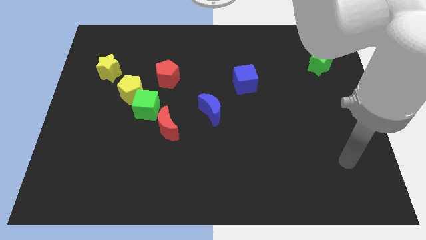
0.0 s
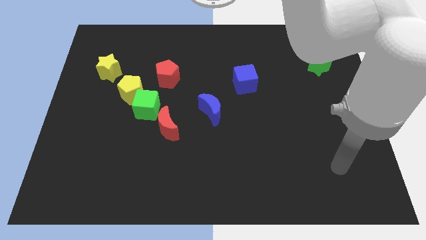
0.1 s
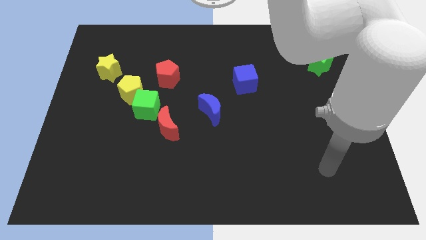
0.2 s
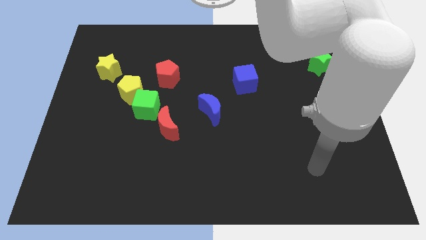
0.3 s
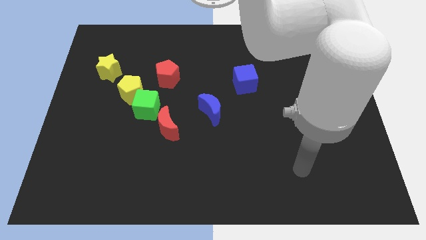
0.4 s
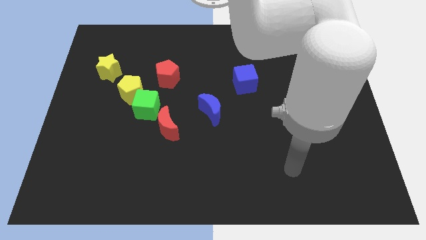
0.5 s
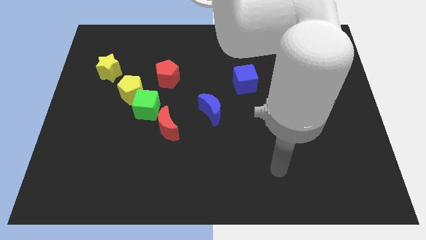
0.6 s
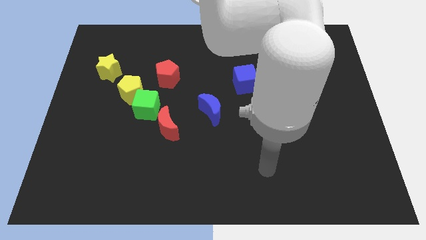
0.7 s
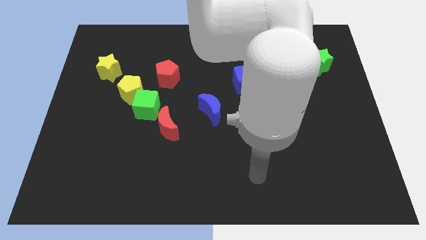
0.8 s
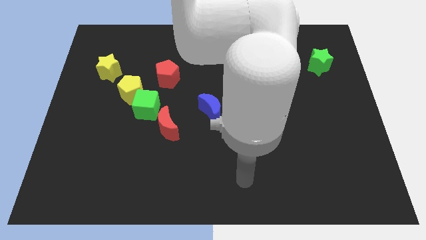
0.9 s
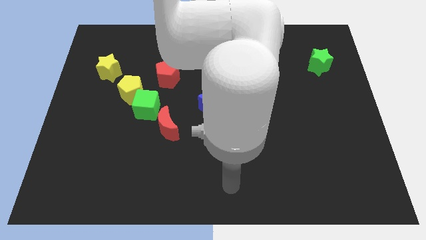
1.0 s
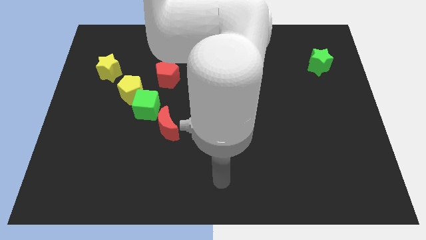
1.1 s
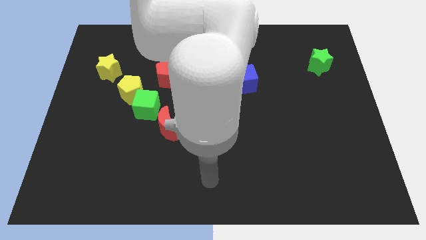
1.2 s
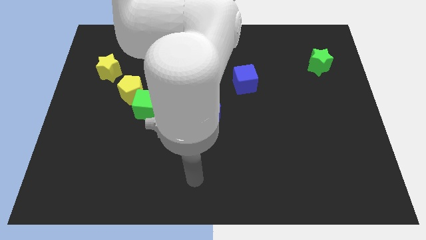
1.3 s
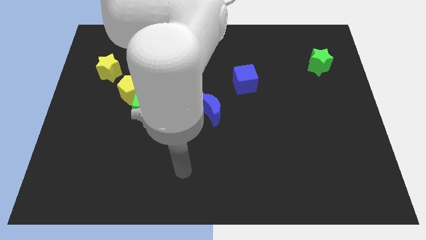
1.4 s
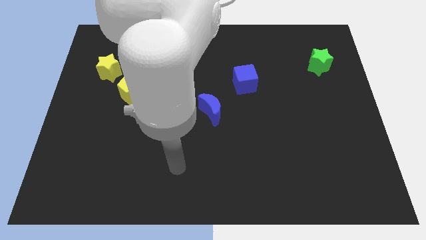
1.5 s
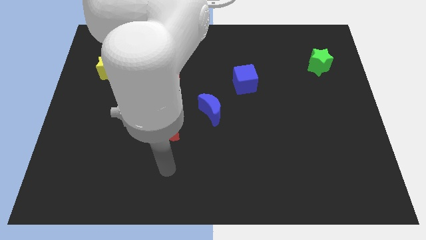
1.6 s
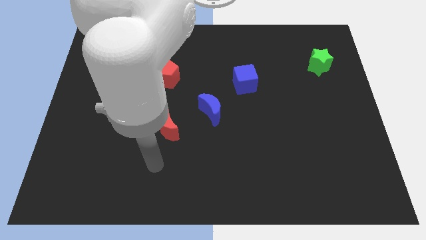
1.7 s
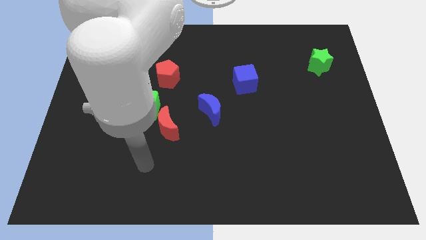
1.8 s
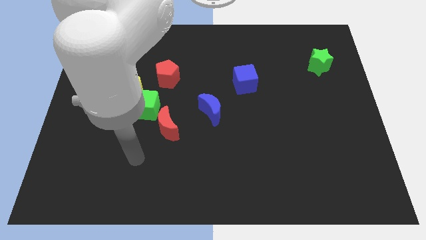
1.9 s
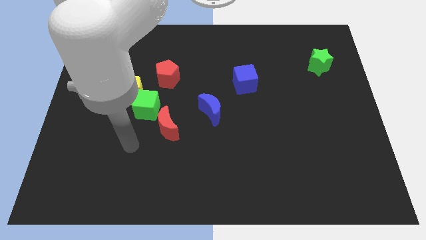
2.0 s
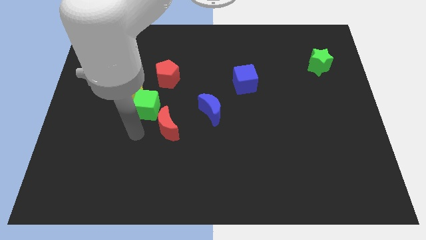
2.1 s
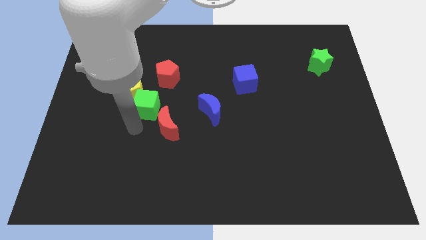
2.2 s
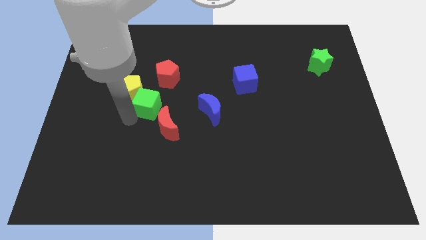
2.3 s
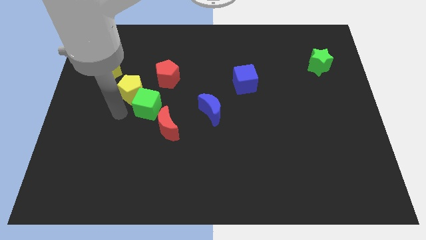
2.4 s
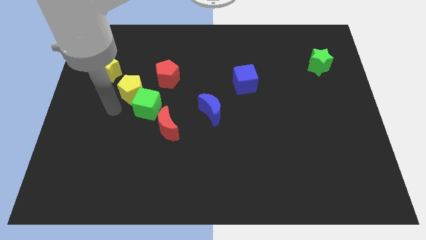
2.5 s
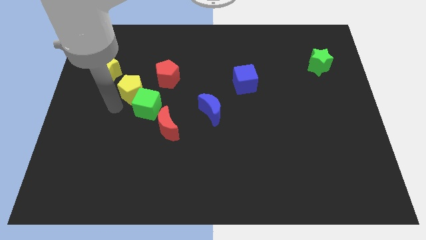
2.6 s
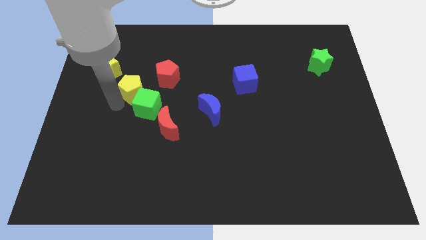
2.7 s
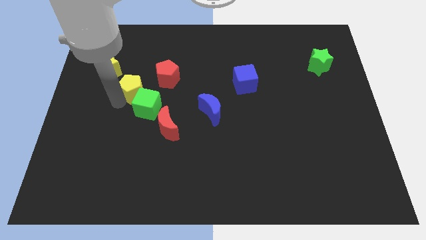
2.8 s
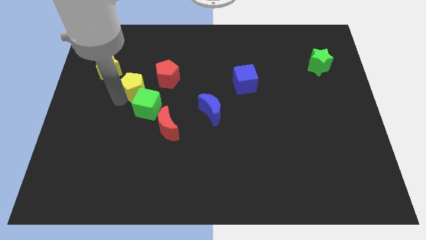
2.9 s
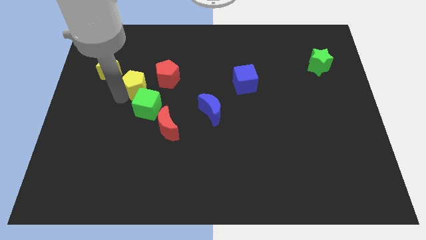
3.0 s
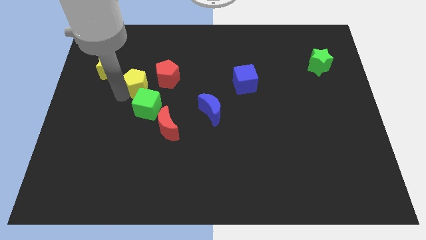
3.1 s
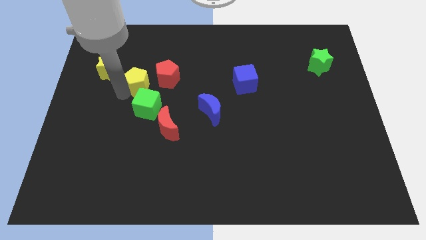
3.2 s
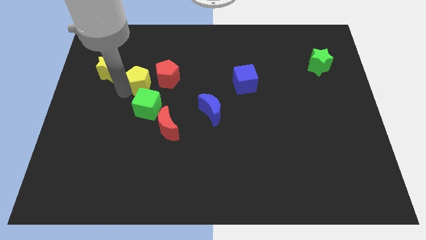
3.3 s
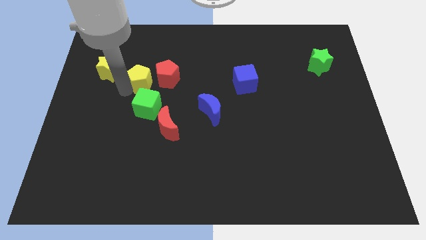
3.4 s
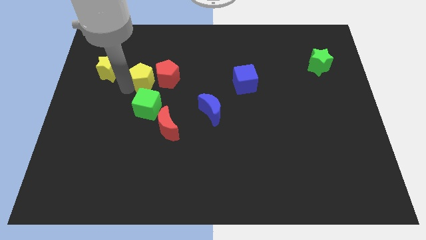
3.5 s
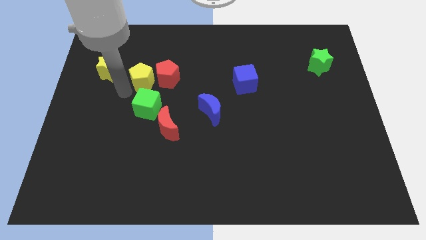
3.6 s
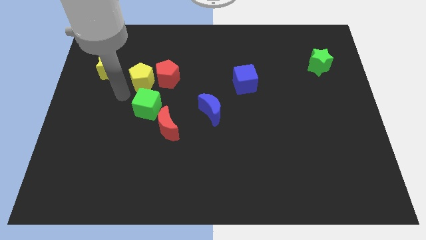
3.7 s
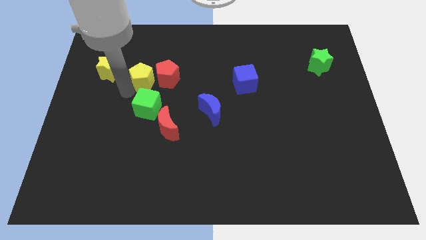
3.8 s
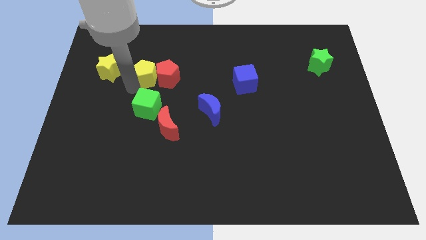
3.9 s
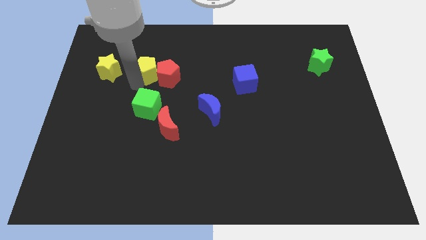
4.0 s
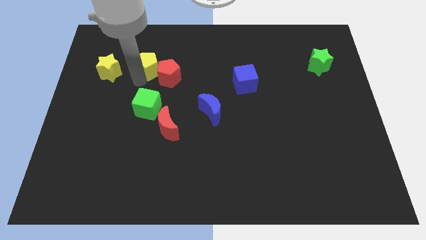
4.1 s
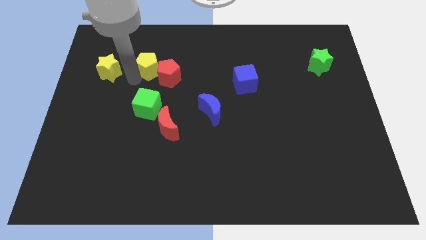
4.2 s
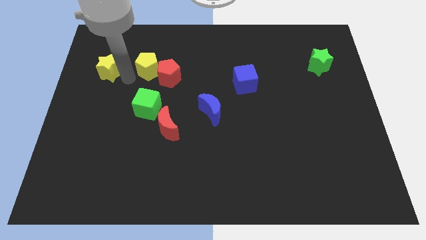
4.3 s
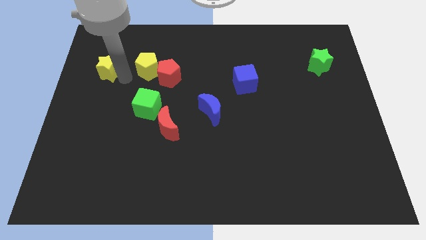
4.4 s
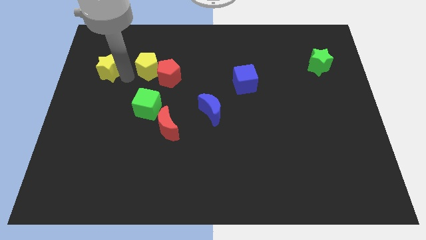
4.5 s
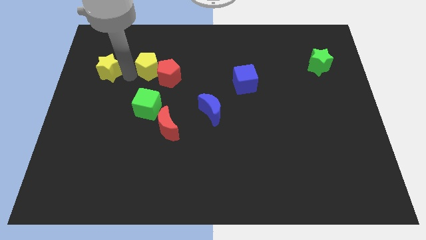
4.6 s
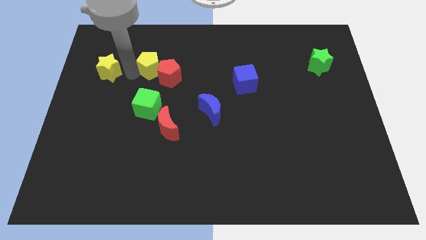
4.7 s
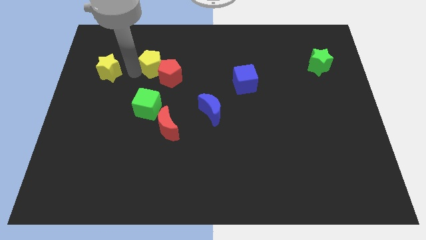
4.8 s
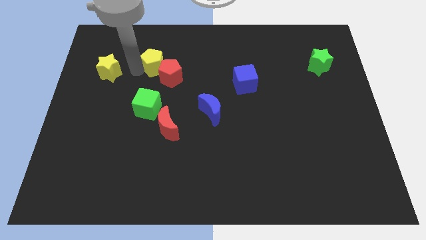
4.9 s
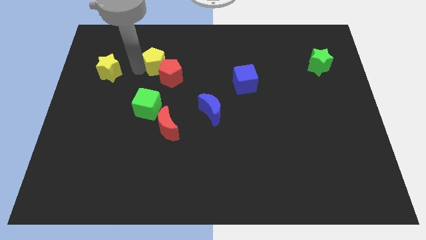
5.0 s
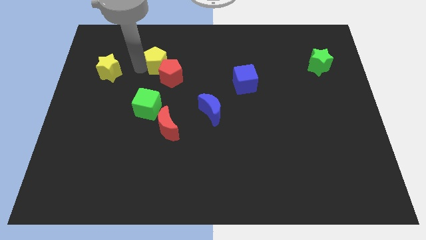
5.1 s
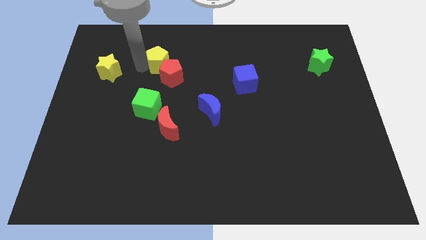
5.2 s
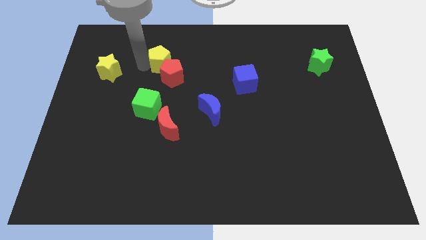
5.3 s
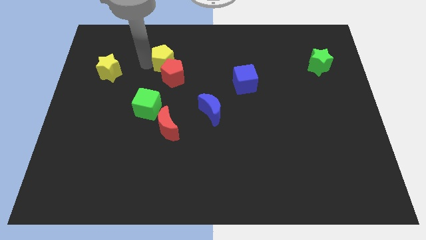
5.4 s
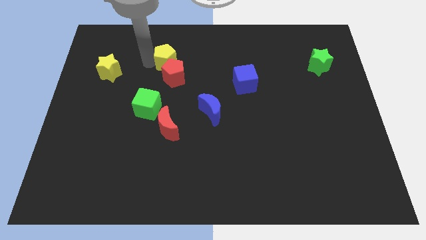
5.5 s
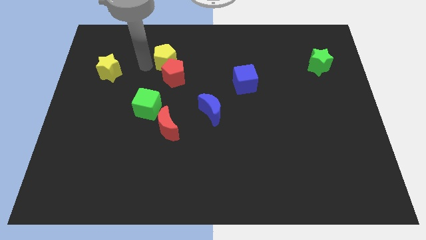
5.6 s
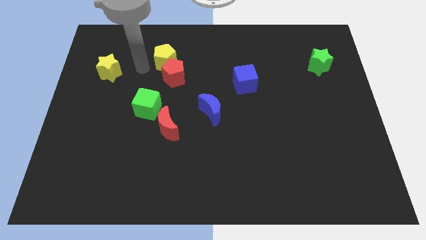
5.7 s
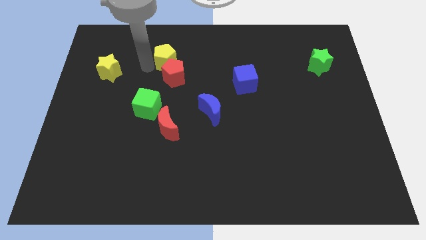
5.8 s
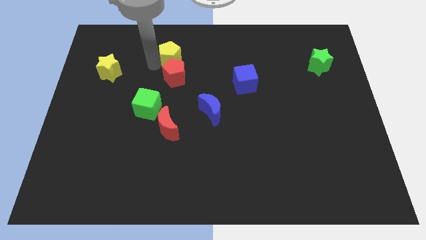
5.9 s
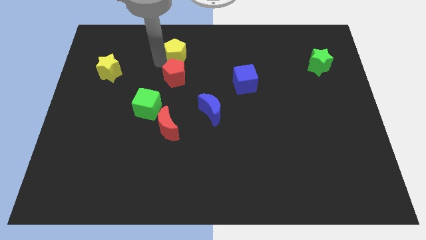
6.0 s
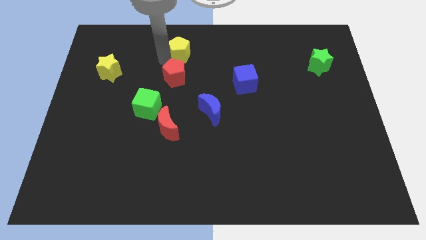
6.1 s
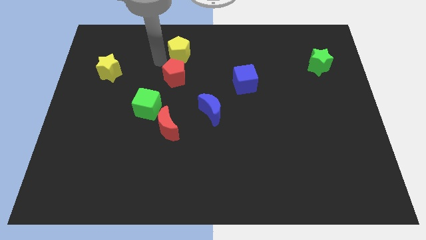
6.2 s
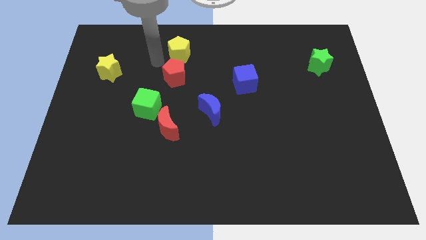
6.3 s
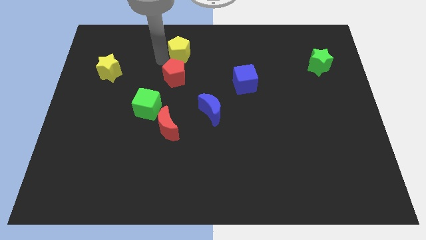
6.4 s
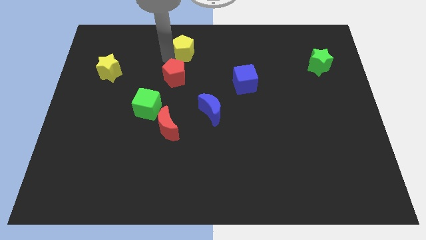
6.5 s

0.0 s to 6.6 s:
move the yellow pentagon to the top side

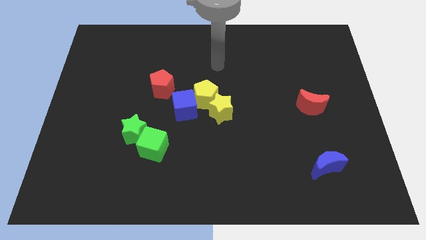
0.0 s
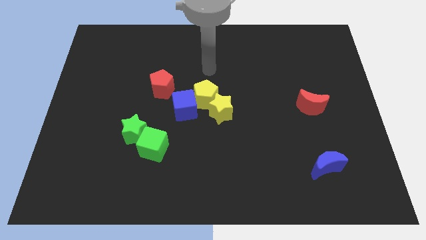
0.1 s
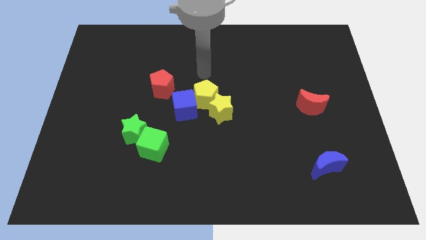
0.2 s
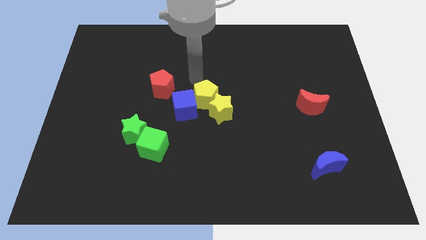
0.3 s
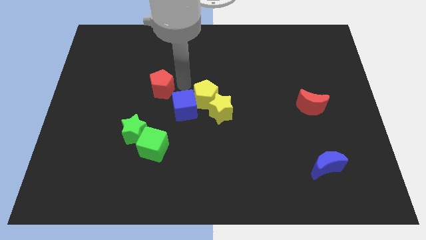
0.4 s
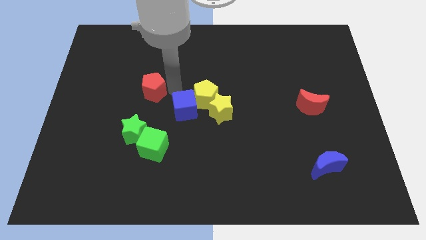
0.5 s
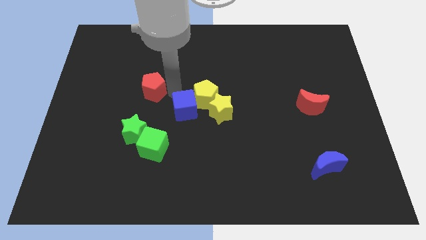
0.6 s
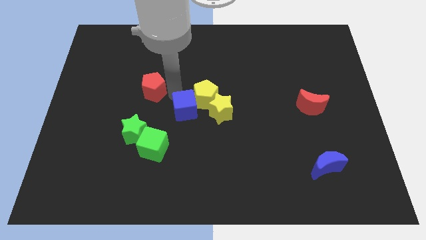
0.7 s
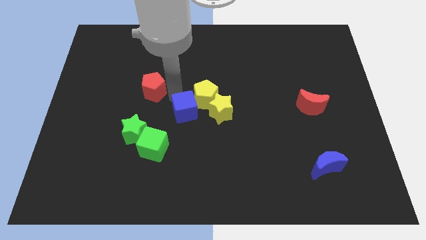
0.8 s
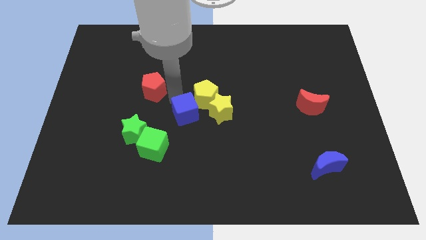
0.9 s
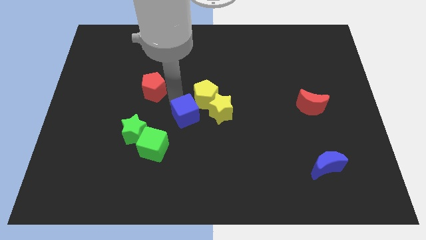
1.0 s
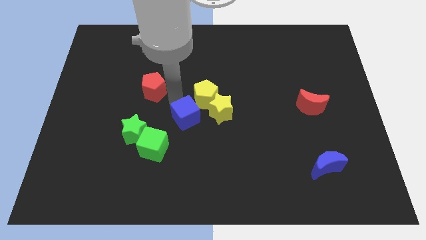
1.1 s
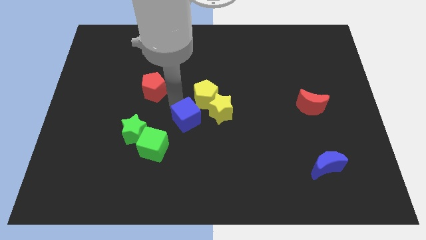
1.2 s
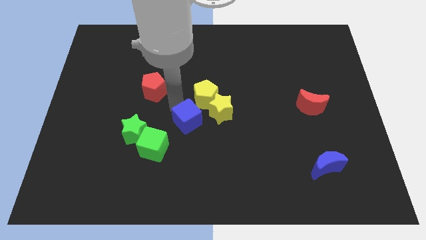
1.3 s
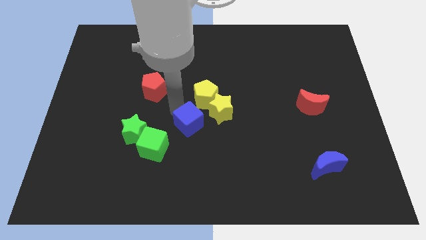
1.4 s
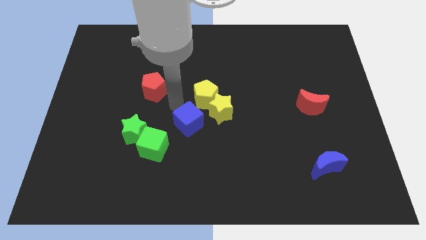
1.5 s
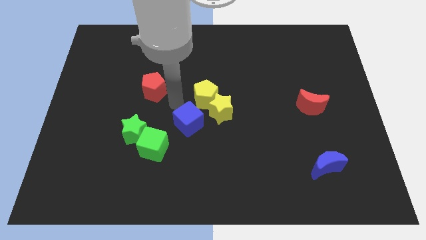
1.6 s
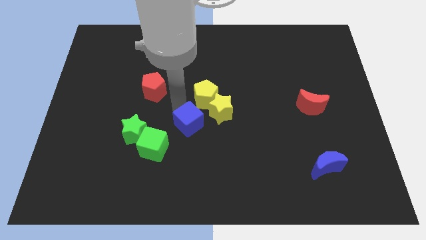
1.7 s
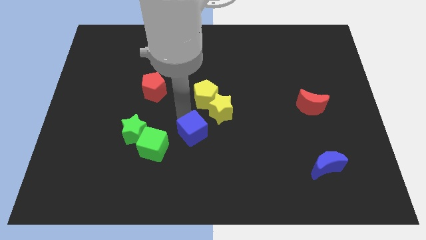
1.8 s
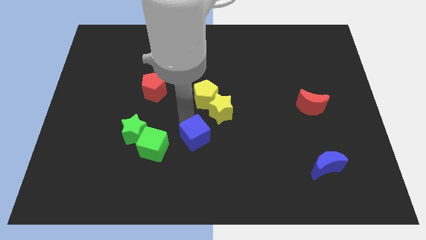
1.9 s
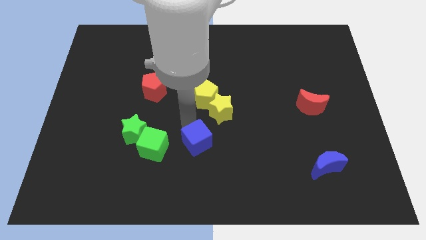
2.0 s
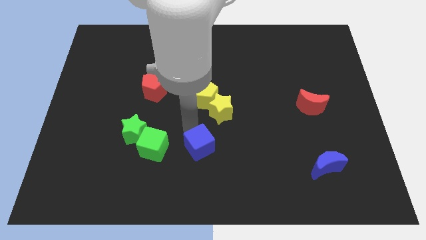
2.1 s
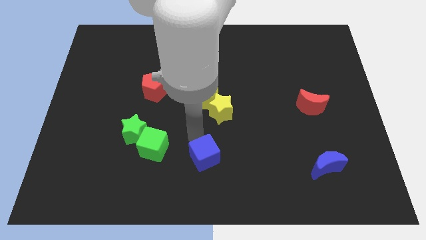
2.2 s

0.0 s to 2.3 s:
slide the blue cube to the bottom side
